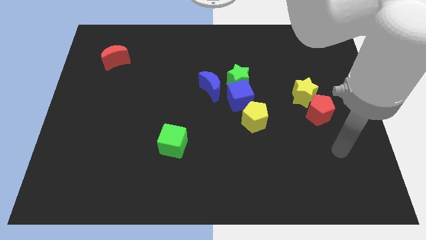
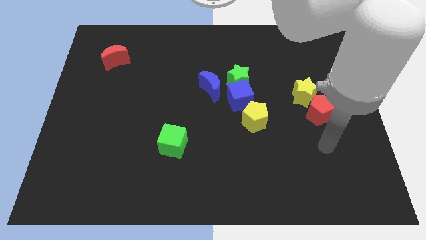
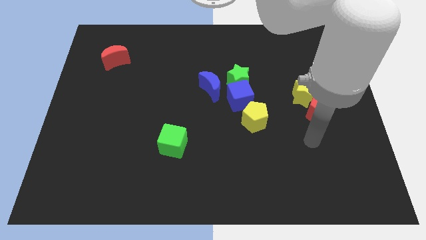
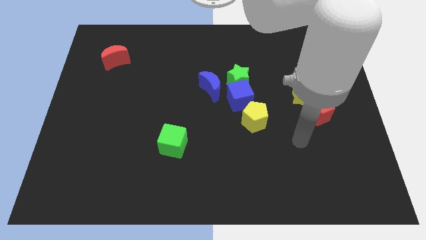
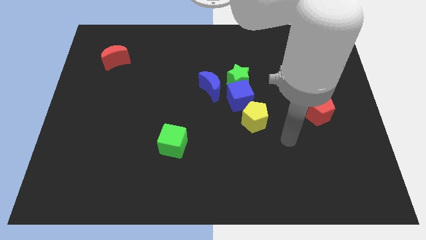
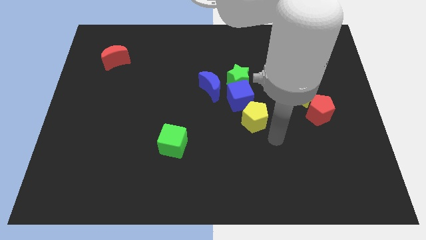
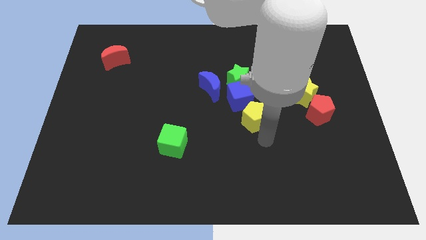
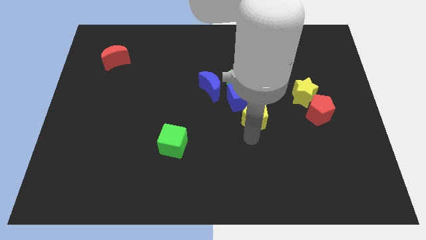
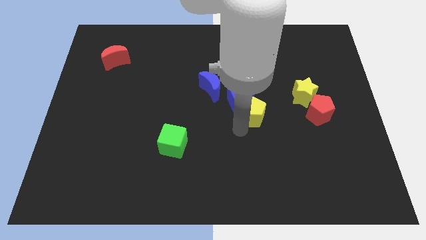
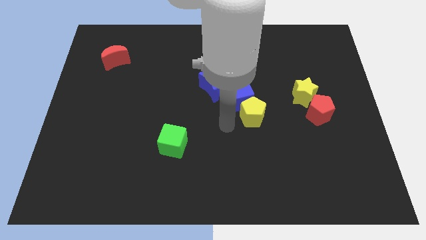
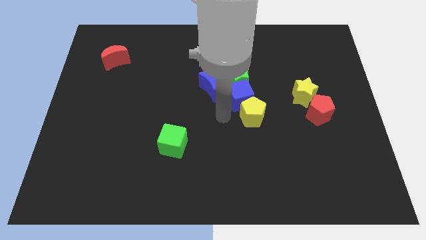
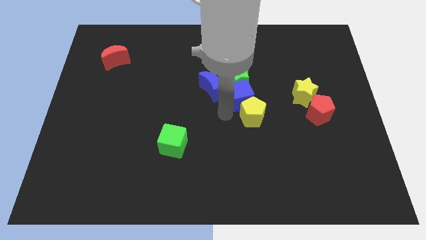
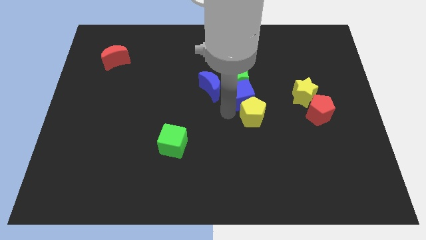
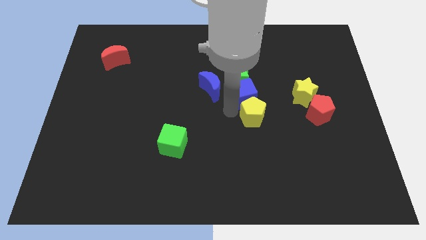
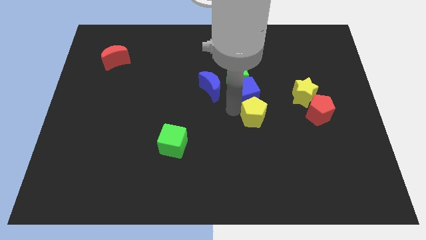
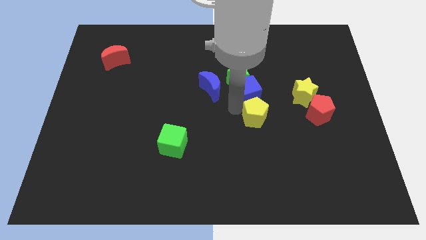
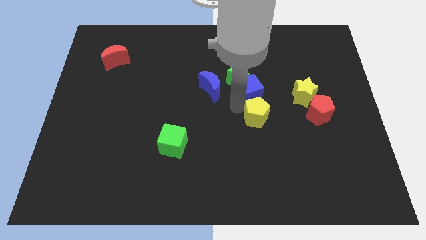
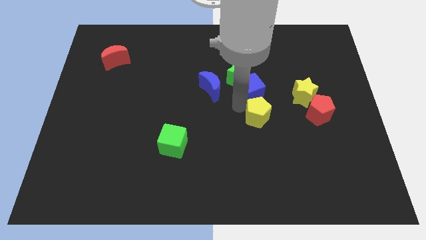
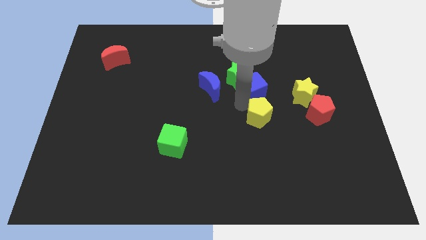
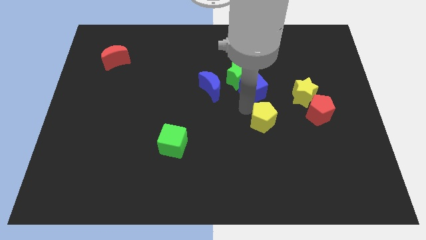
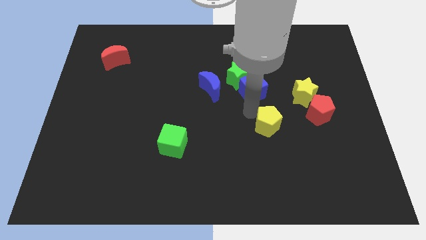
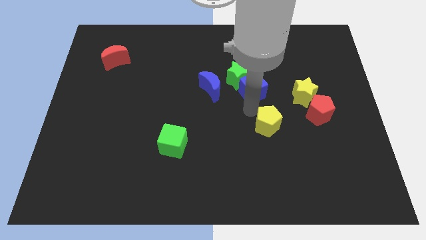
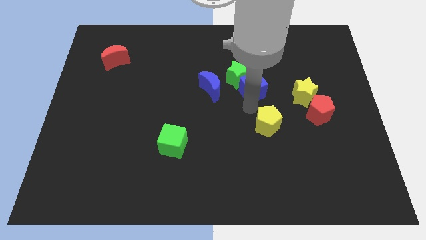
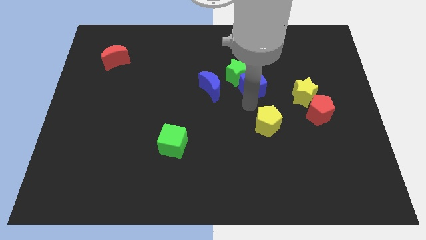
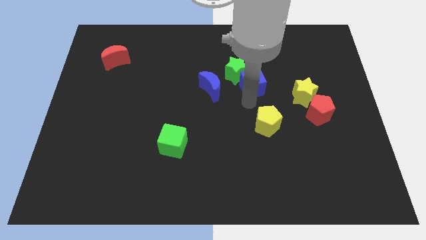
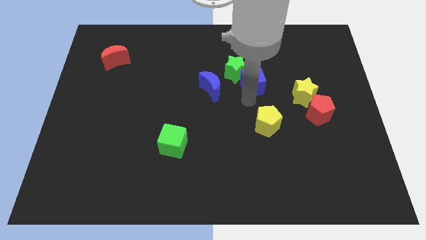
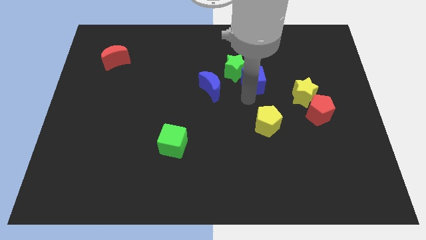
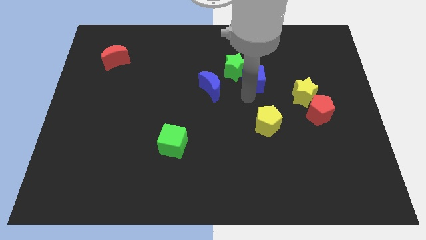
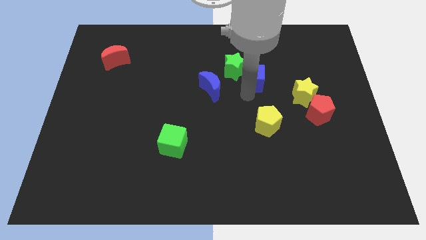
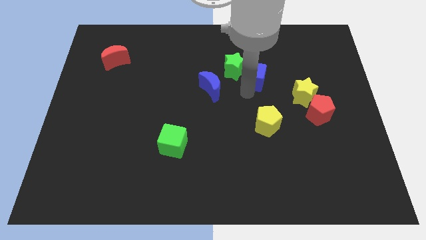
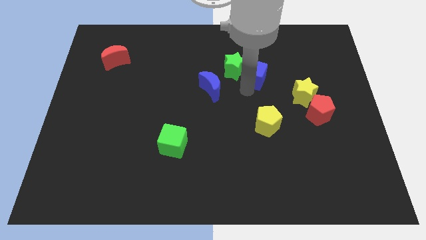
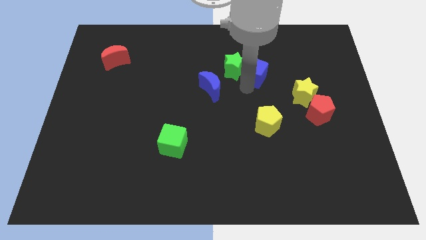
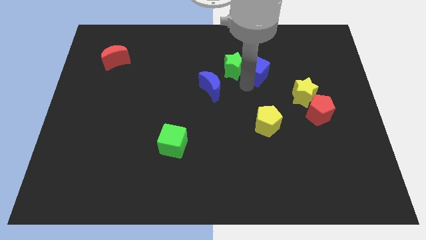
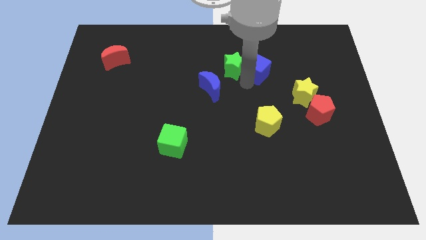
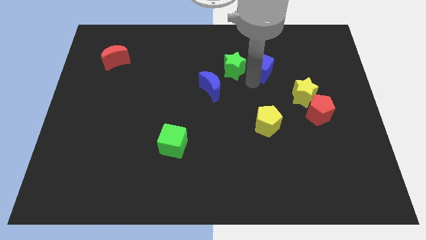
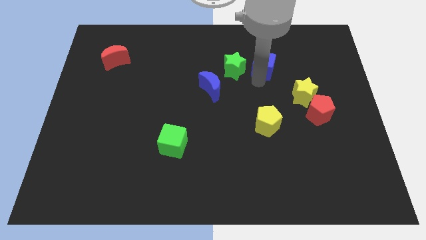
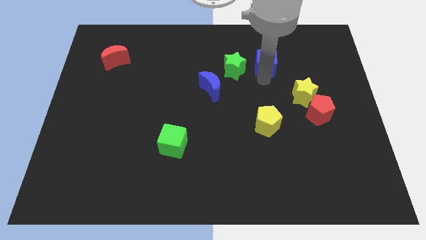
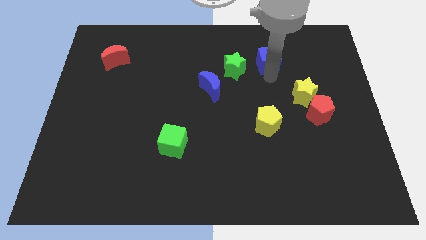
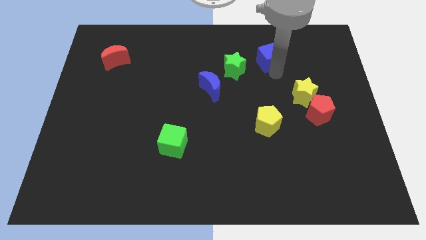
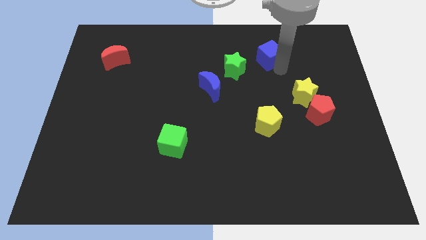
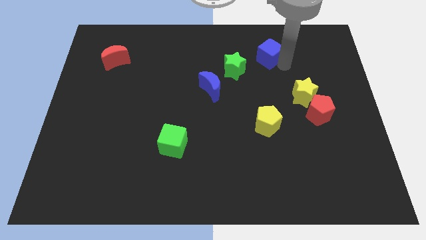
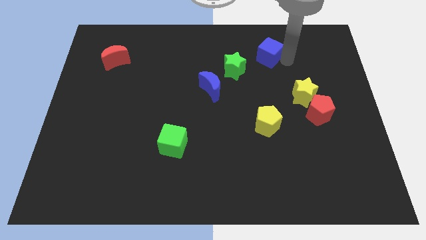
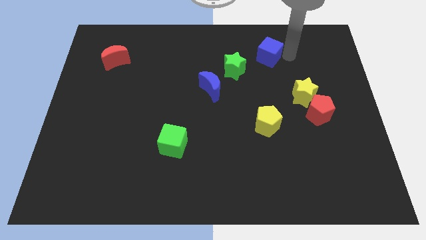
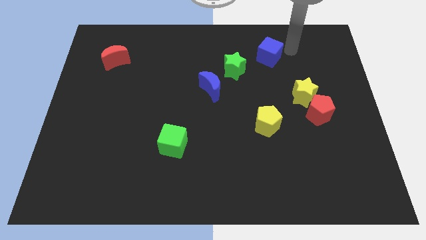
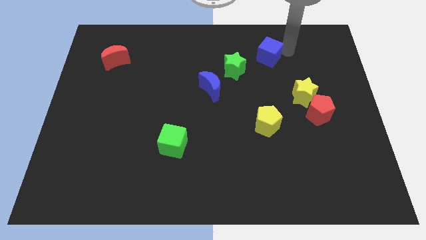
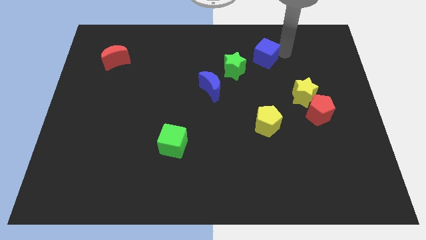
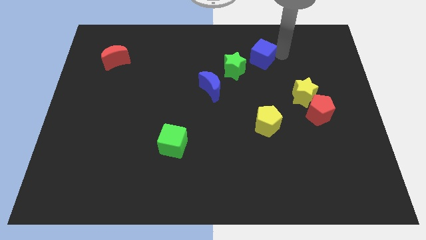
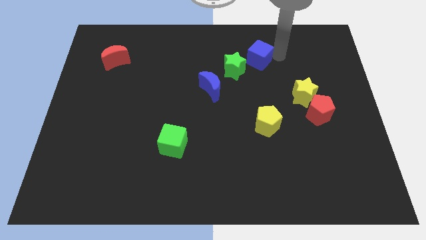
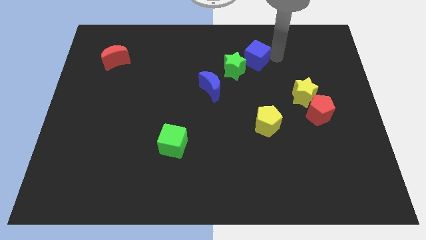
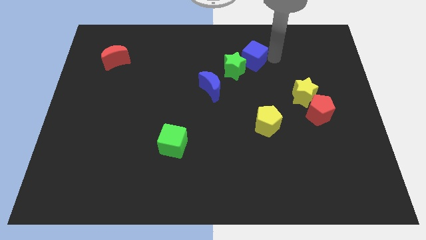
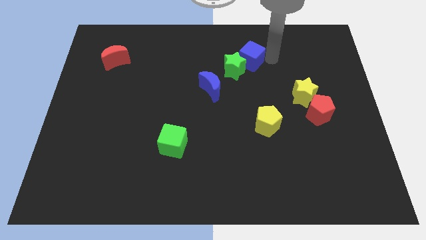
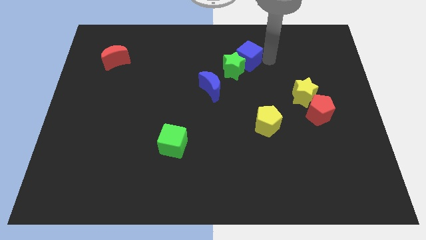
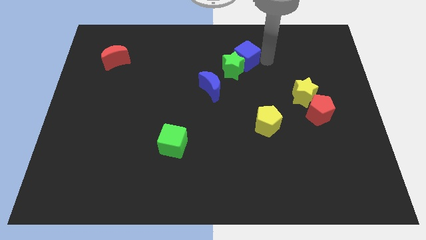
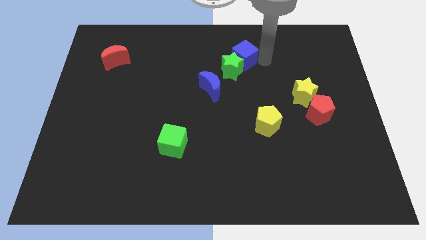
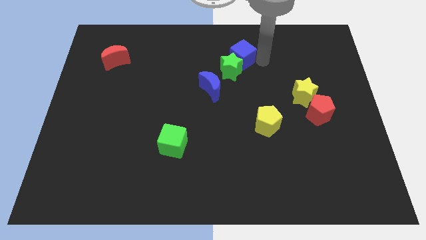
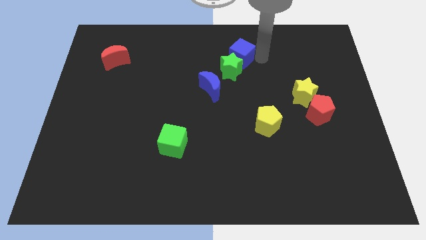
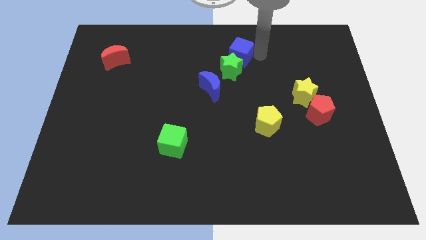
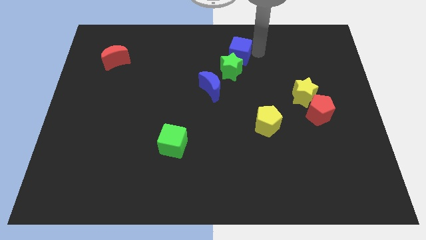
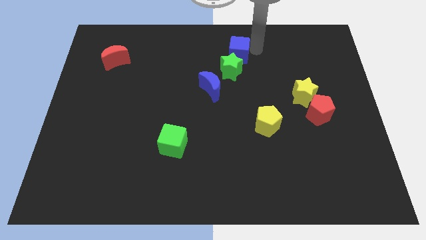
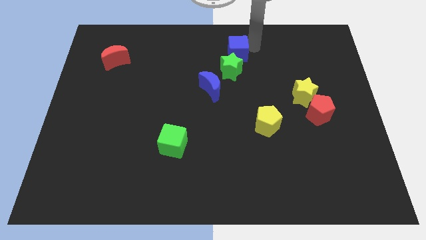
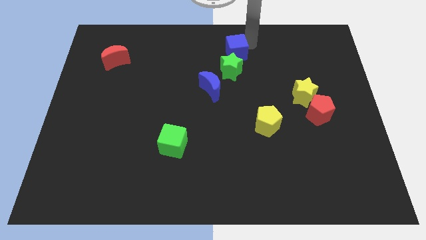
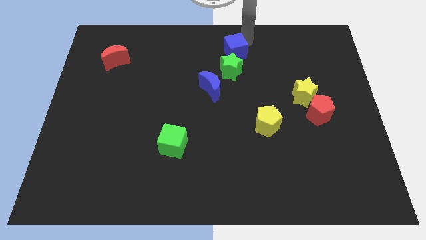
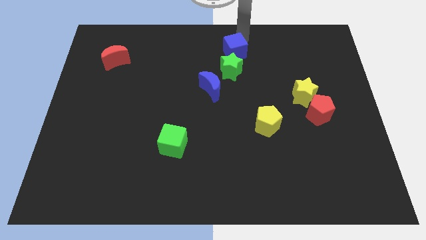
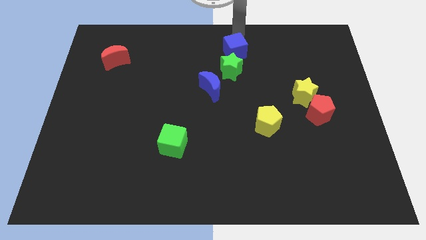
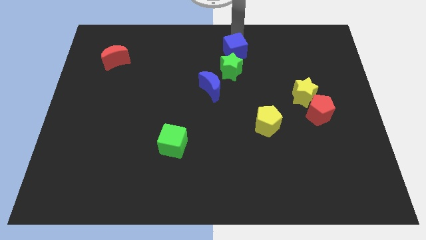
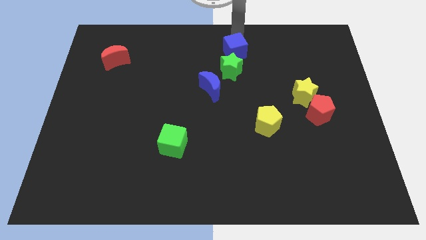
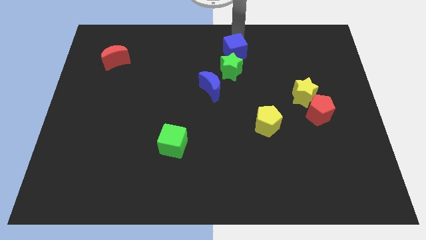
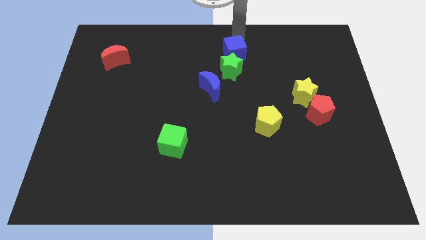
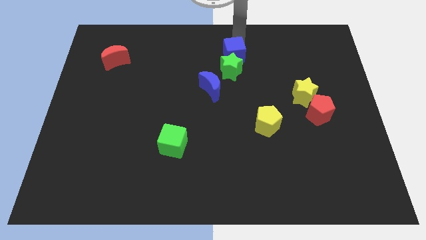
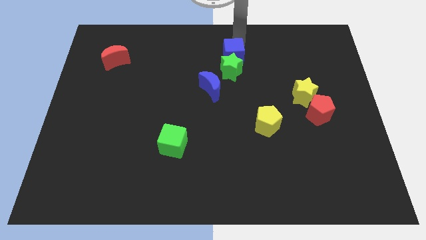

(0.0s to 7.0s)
push the blue cube to the top left side of the green star
